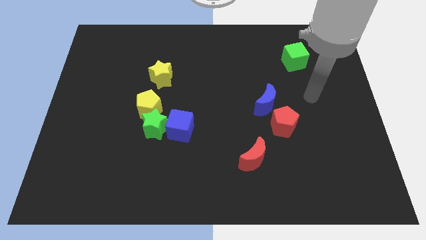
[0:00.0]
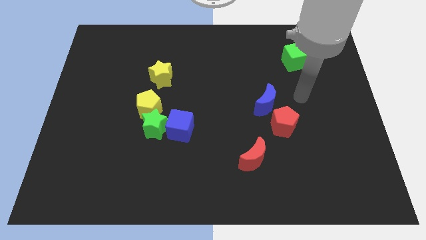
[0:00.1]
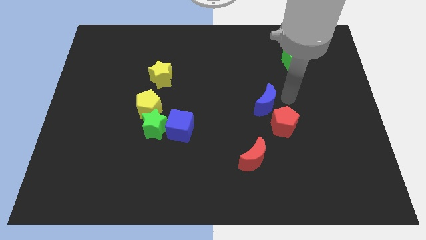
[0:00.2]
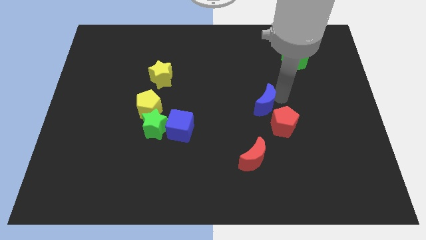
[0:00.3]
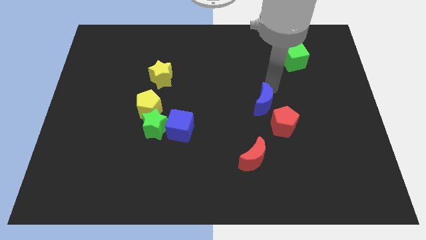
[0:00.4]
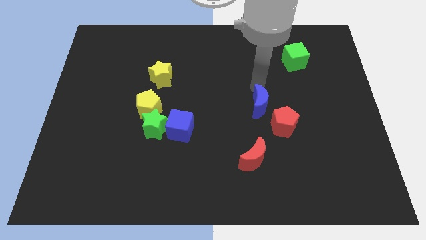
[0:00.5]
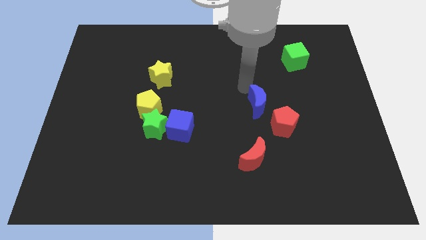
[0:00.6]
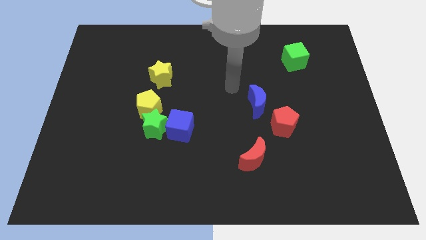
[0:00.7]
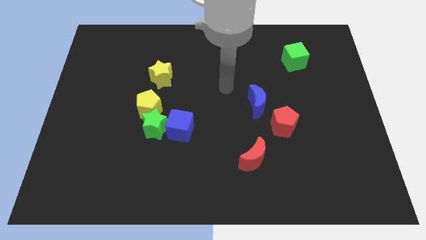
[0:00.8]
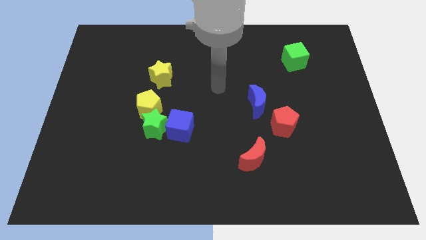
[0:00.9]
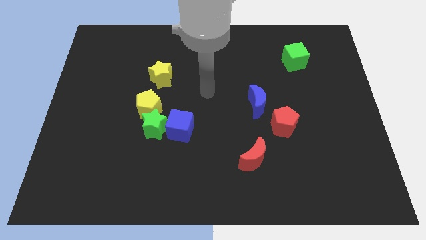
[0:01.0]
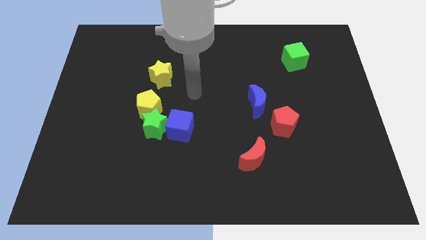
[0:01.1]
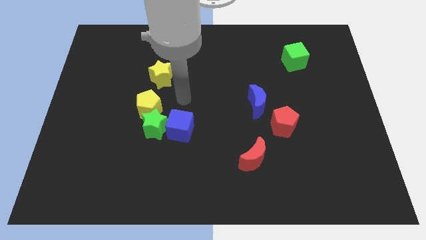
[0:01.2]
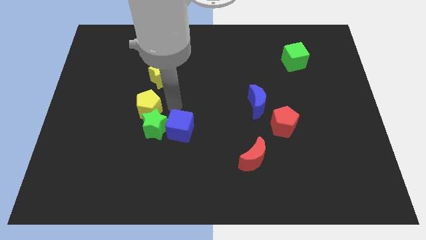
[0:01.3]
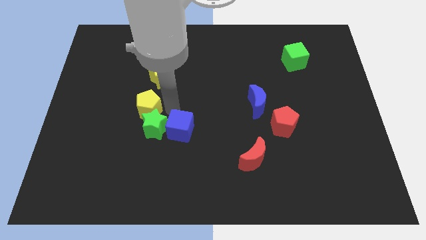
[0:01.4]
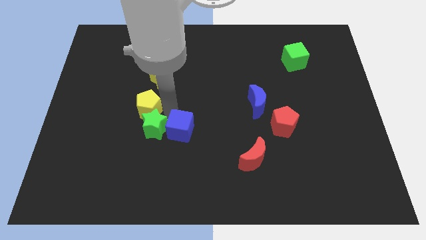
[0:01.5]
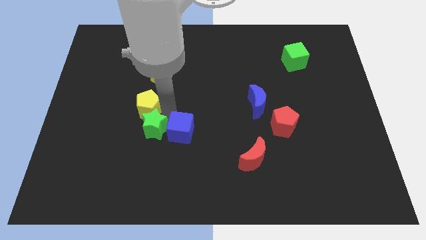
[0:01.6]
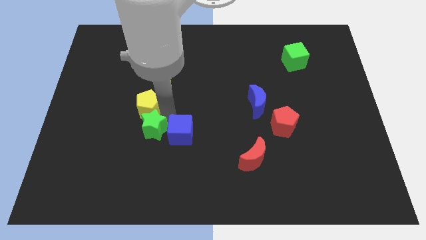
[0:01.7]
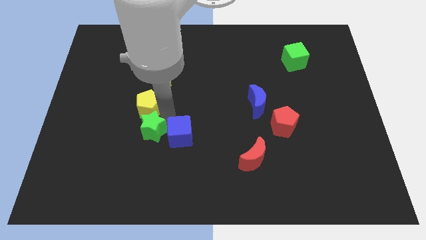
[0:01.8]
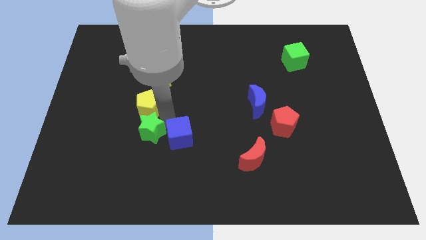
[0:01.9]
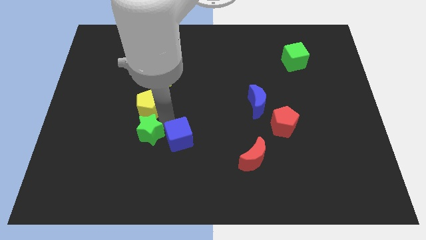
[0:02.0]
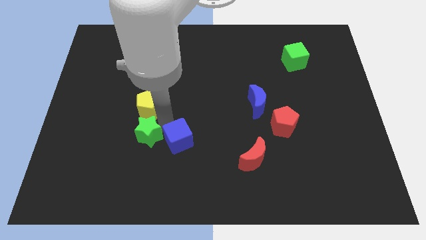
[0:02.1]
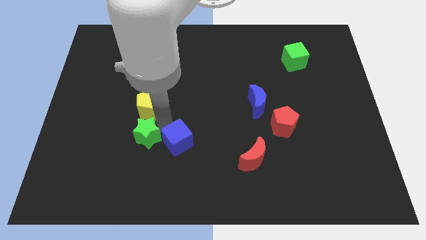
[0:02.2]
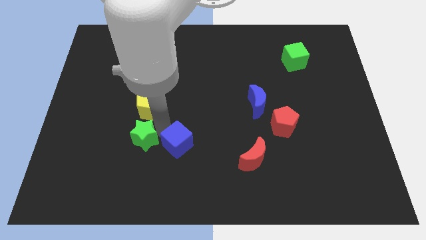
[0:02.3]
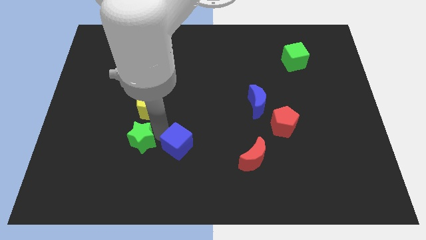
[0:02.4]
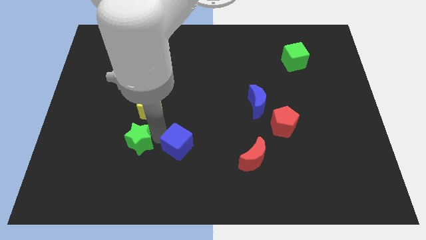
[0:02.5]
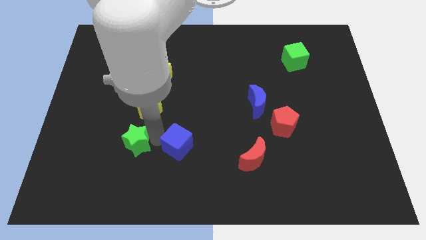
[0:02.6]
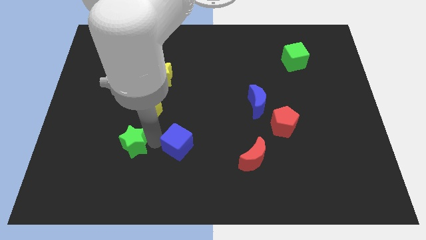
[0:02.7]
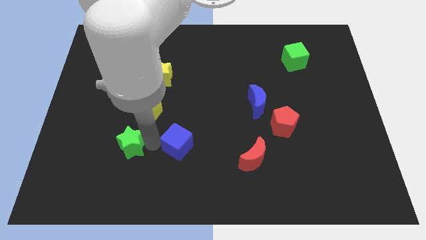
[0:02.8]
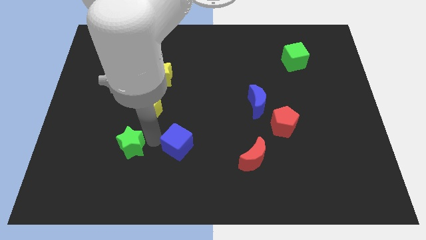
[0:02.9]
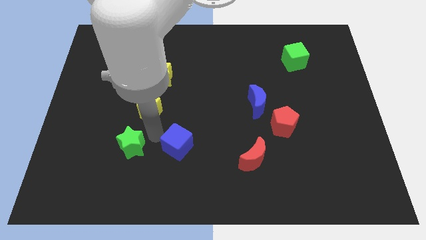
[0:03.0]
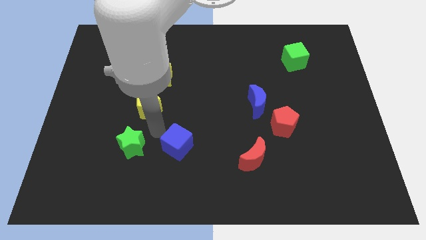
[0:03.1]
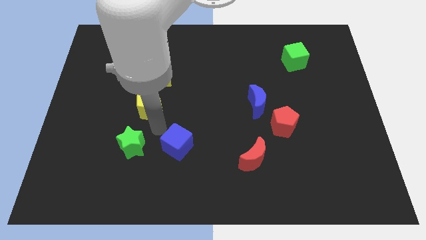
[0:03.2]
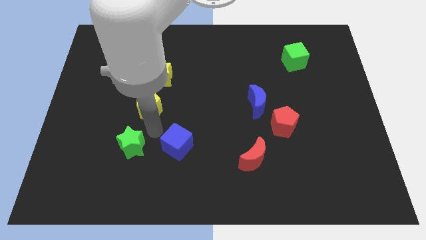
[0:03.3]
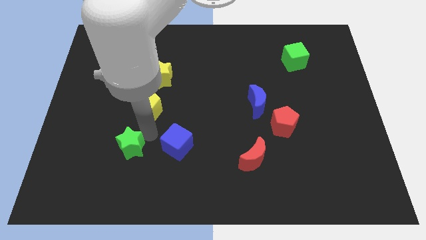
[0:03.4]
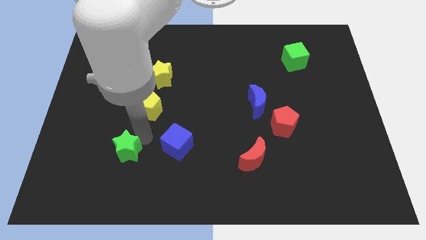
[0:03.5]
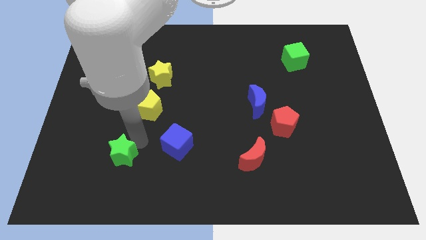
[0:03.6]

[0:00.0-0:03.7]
pull the green star apart from the yellow pentagon and blue cube

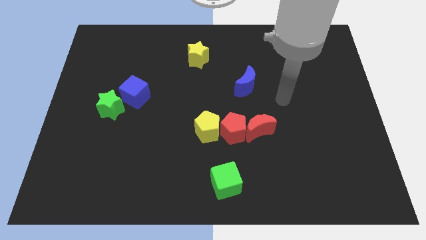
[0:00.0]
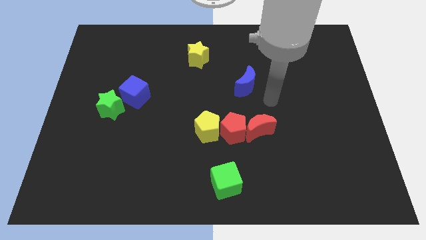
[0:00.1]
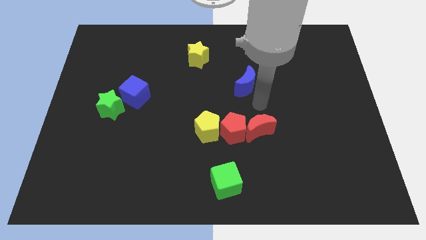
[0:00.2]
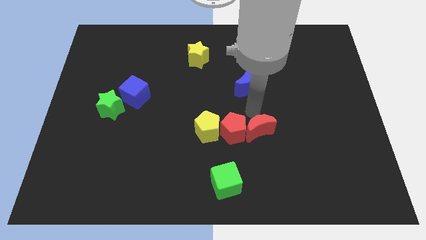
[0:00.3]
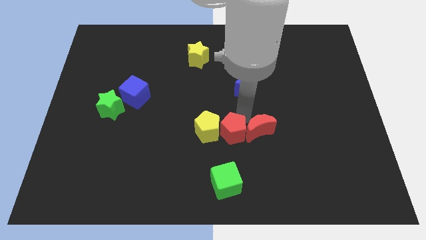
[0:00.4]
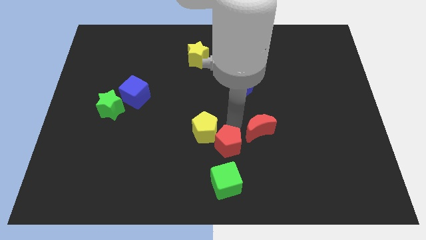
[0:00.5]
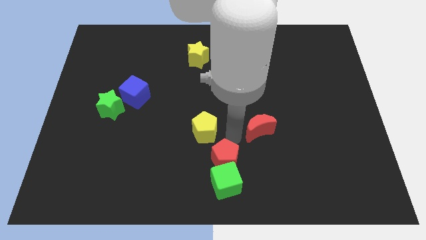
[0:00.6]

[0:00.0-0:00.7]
pull the red moon apart from the red pentagon

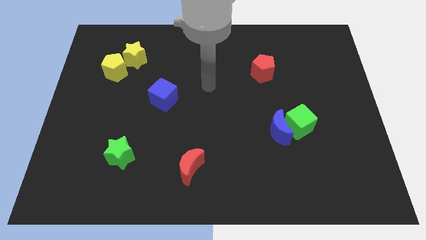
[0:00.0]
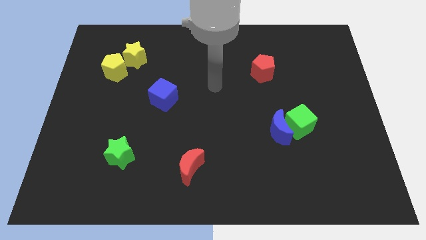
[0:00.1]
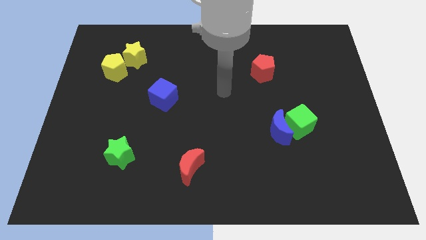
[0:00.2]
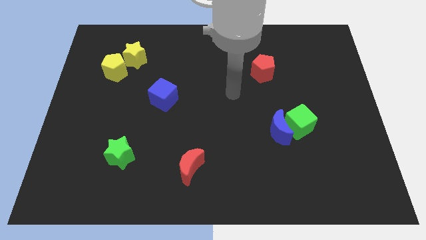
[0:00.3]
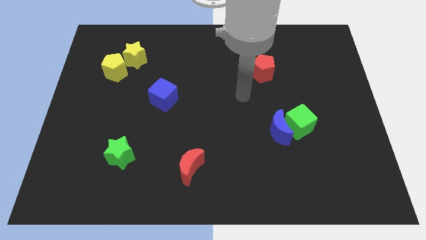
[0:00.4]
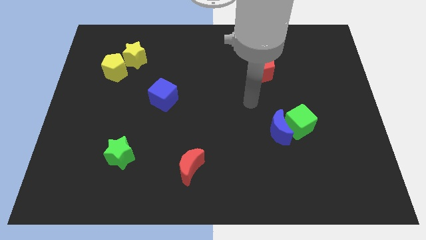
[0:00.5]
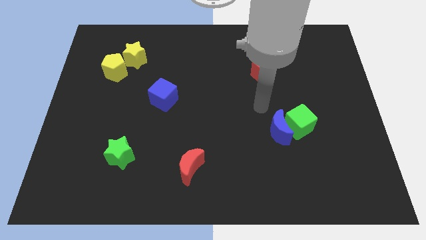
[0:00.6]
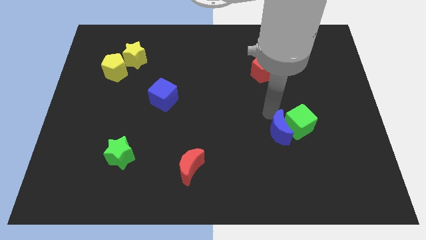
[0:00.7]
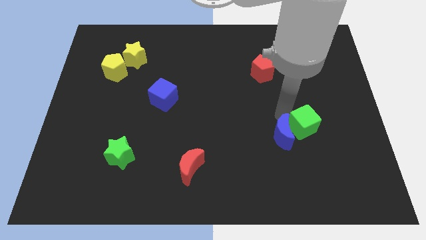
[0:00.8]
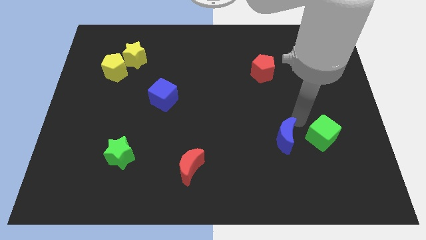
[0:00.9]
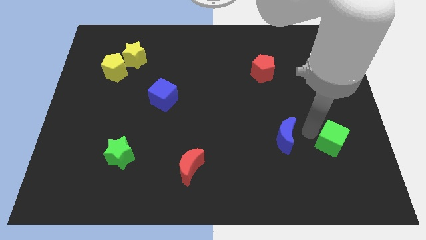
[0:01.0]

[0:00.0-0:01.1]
pull the blue moon apart from the green cube

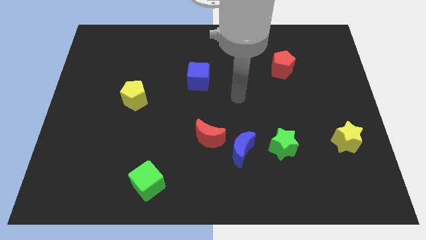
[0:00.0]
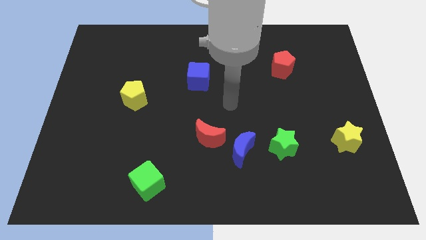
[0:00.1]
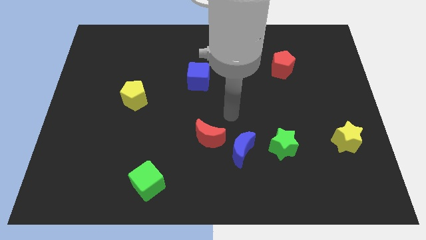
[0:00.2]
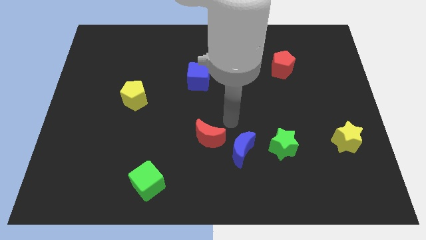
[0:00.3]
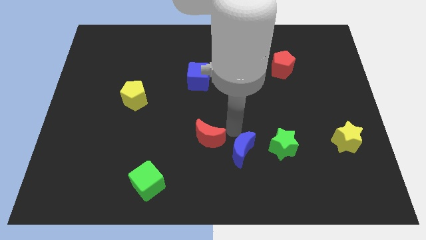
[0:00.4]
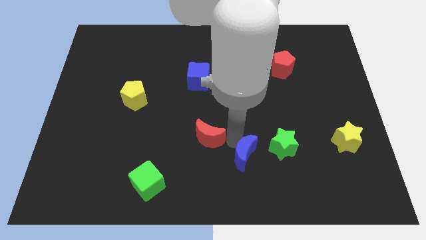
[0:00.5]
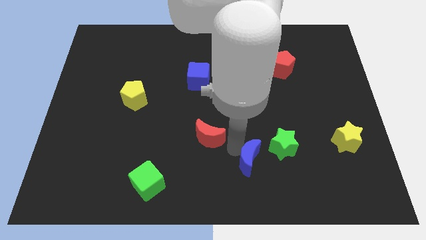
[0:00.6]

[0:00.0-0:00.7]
pull the red moon apart from the blue moon

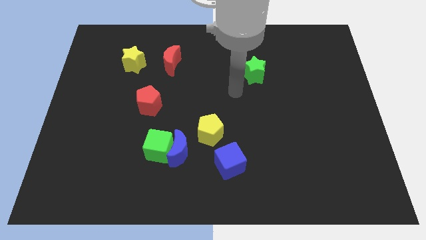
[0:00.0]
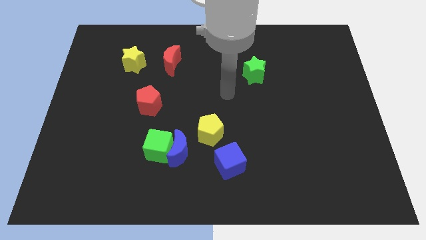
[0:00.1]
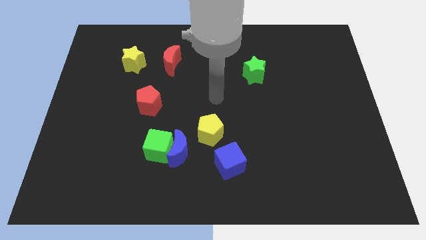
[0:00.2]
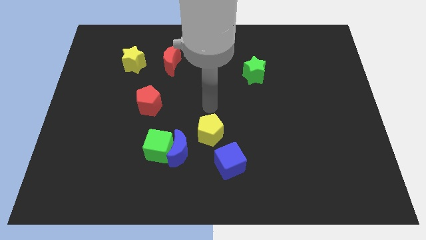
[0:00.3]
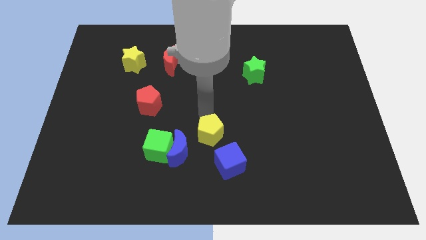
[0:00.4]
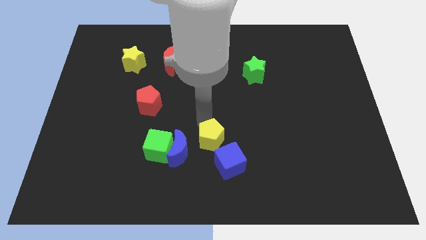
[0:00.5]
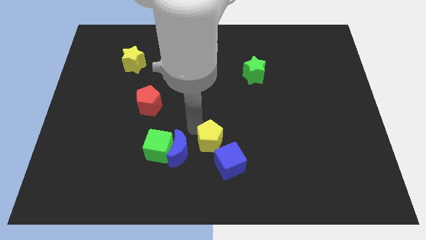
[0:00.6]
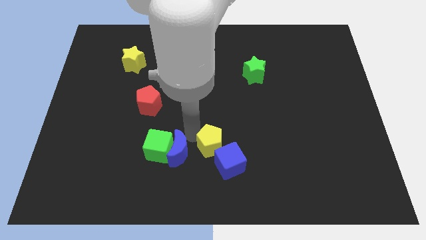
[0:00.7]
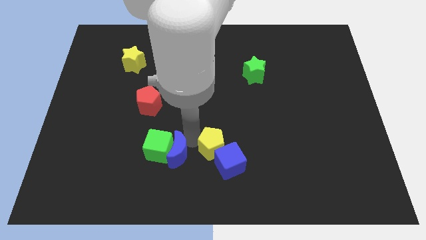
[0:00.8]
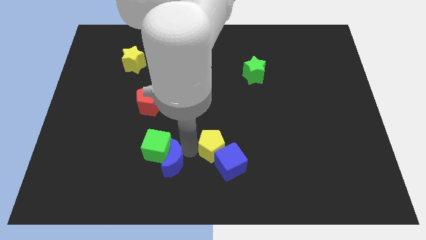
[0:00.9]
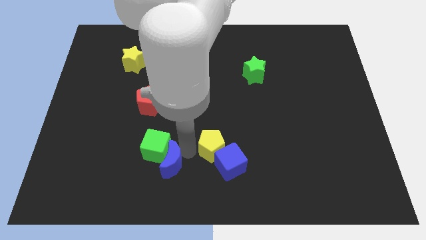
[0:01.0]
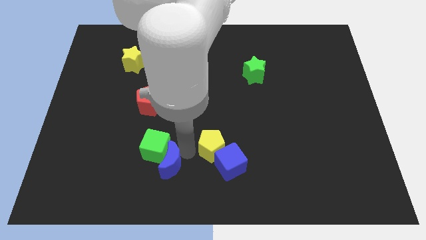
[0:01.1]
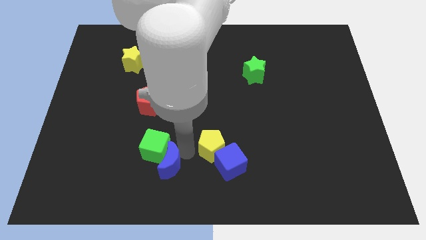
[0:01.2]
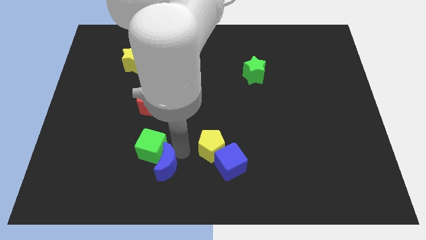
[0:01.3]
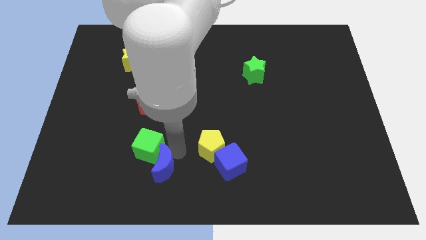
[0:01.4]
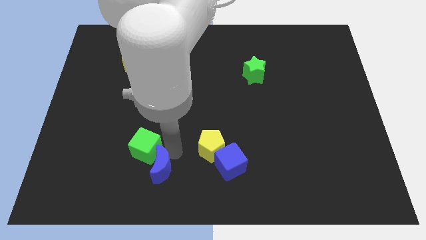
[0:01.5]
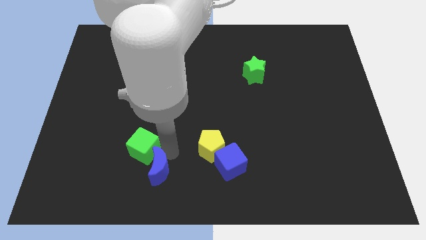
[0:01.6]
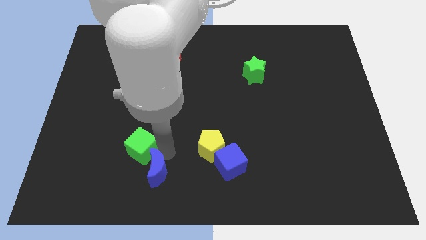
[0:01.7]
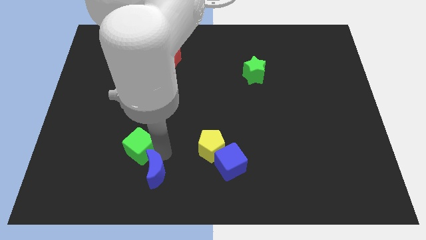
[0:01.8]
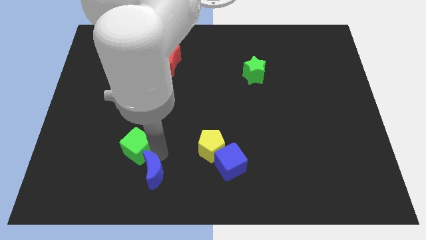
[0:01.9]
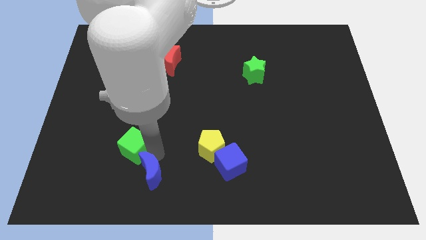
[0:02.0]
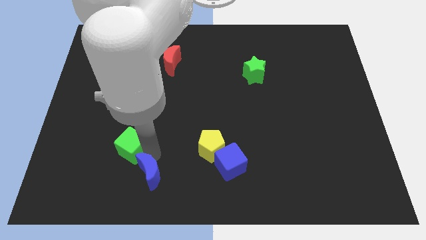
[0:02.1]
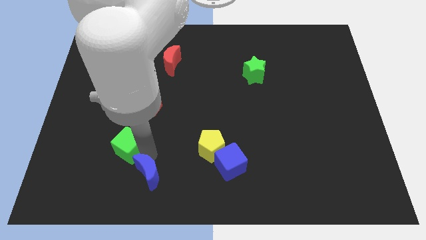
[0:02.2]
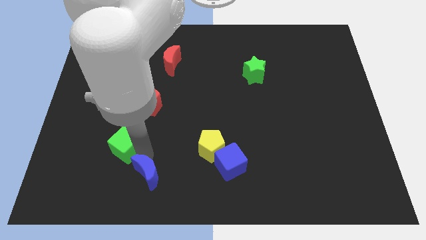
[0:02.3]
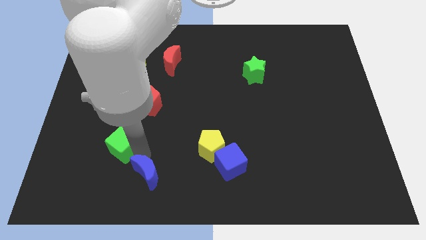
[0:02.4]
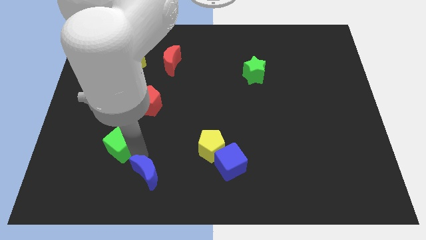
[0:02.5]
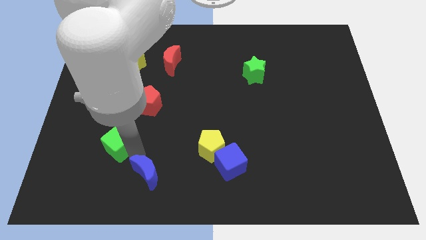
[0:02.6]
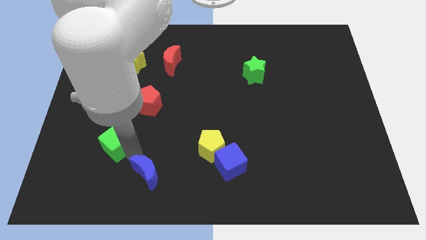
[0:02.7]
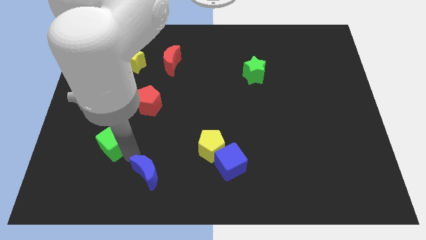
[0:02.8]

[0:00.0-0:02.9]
pull the green cube apart from the blue moon

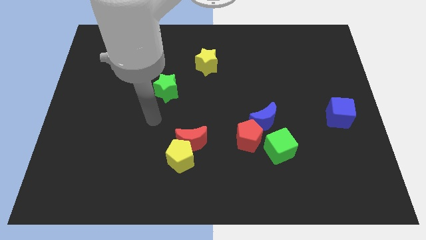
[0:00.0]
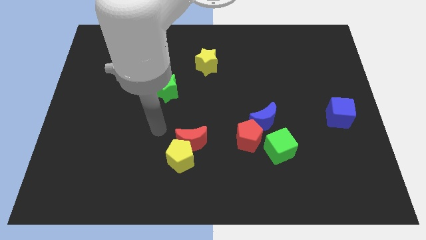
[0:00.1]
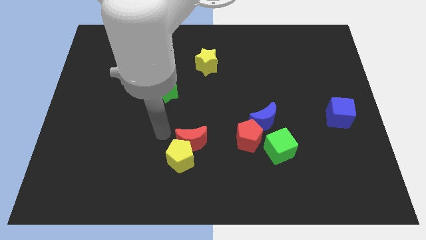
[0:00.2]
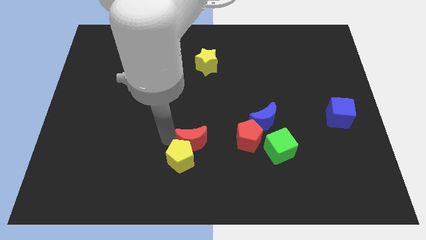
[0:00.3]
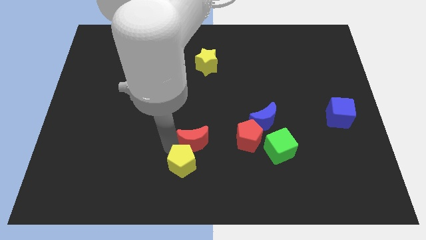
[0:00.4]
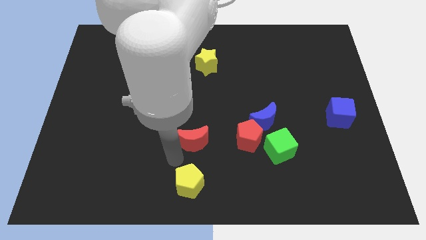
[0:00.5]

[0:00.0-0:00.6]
separate the red moon from the yellow pentagon
